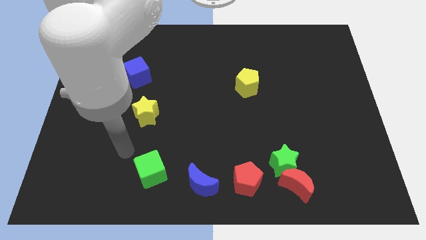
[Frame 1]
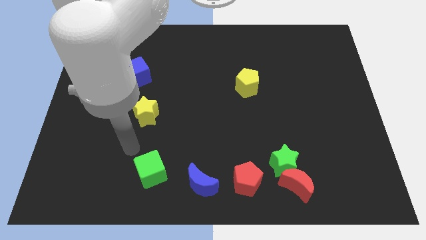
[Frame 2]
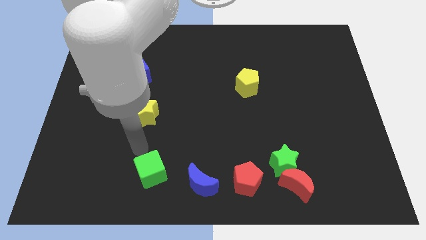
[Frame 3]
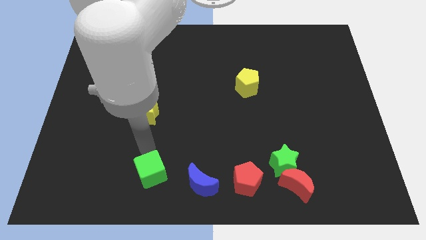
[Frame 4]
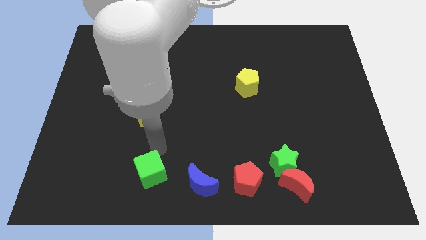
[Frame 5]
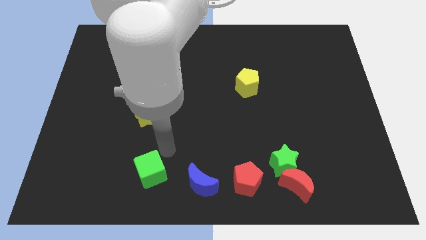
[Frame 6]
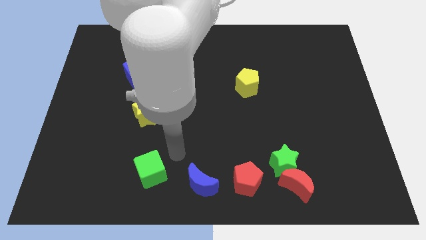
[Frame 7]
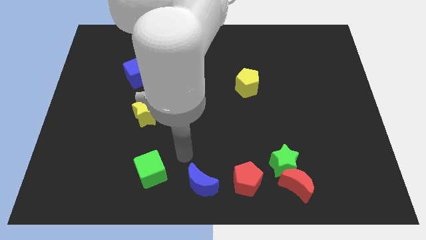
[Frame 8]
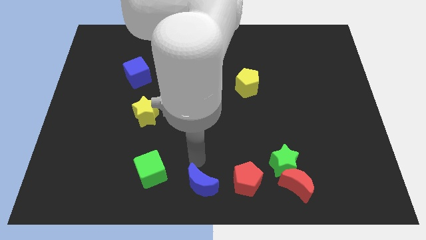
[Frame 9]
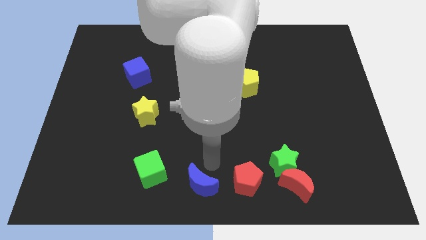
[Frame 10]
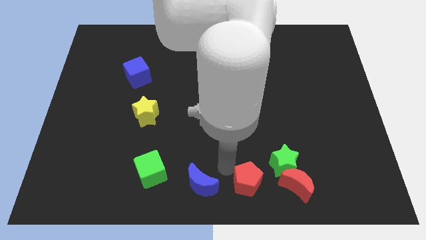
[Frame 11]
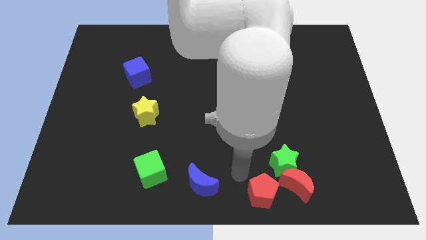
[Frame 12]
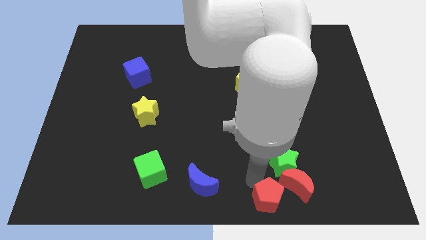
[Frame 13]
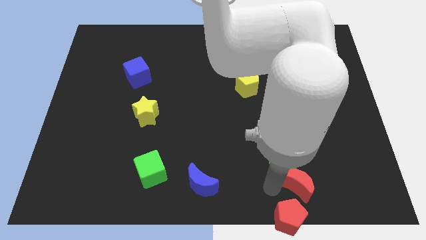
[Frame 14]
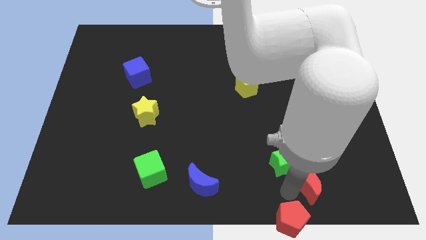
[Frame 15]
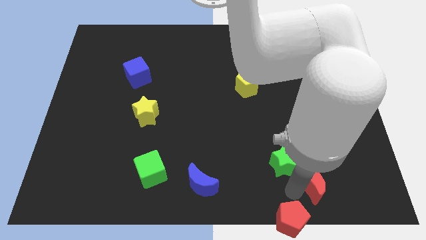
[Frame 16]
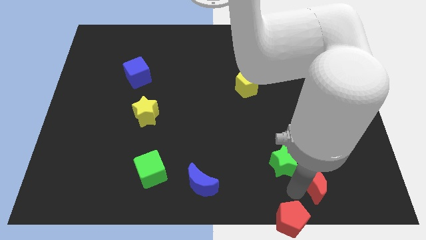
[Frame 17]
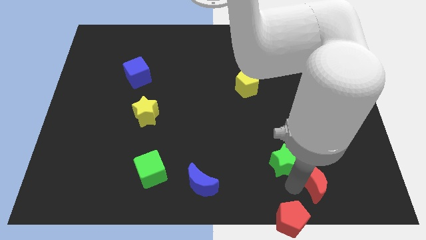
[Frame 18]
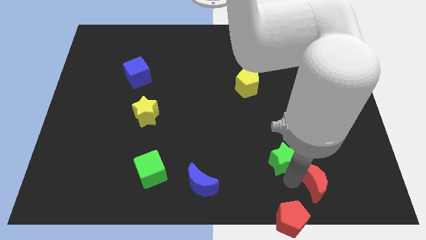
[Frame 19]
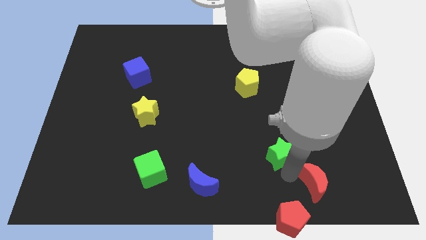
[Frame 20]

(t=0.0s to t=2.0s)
pull the green star apart from the red moon and red pentagon

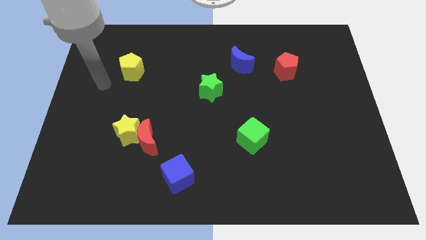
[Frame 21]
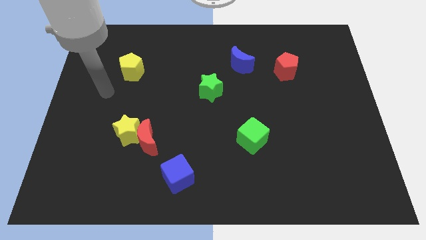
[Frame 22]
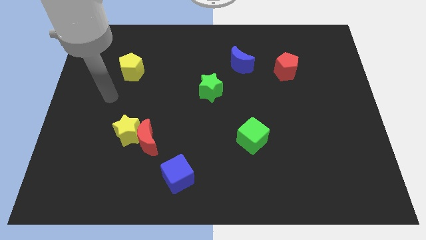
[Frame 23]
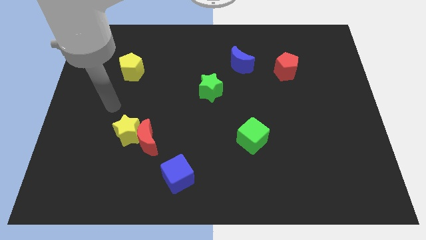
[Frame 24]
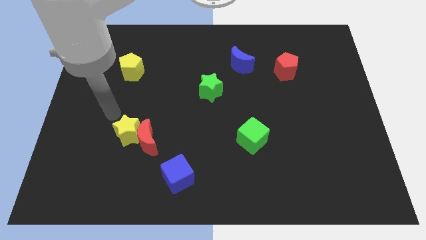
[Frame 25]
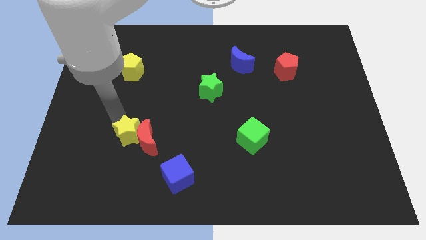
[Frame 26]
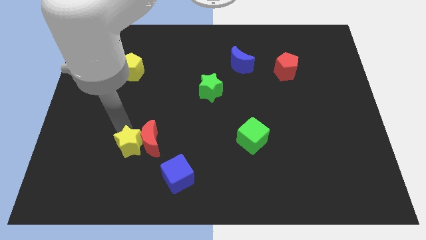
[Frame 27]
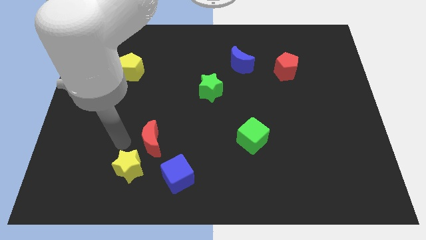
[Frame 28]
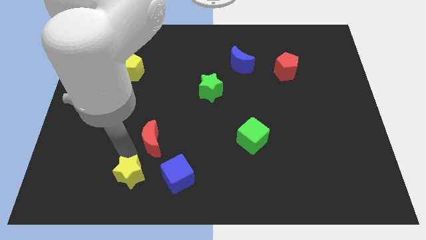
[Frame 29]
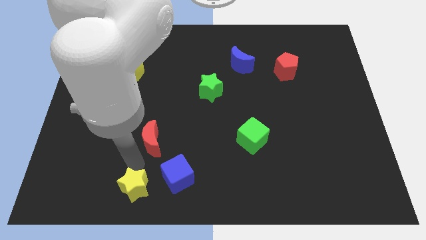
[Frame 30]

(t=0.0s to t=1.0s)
separate the red moon from the yellow star

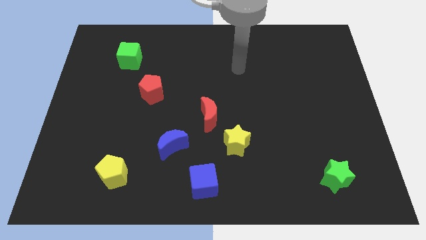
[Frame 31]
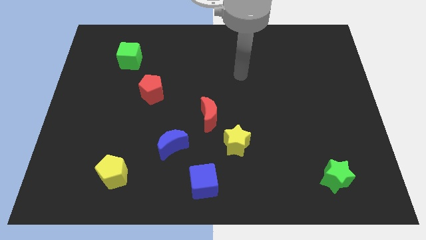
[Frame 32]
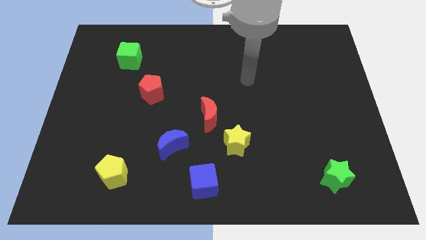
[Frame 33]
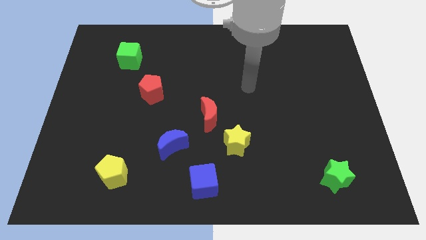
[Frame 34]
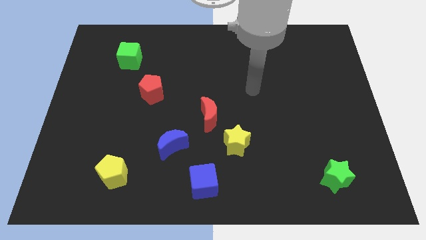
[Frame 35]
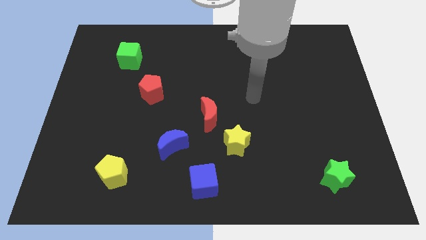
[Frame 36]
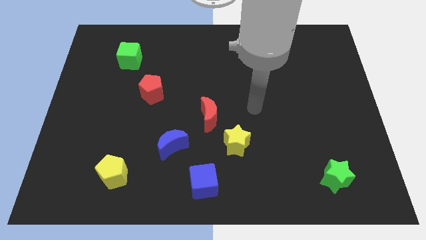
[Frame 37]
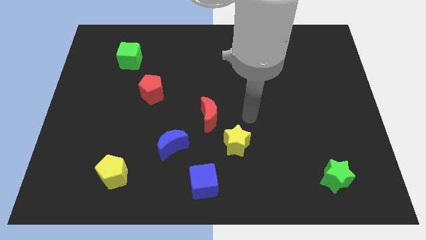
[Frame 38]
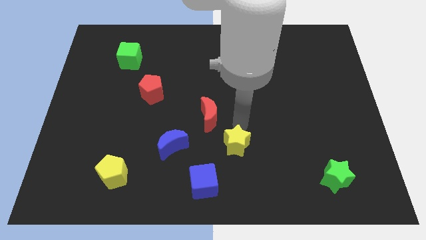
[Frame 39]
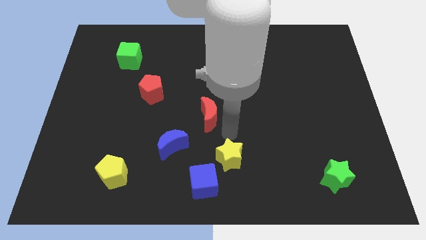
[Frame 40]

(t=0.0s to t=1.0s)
move the red moon away from the yellow star

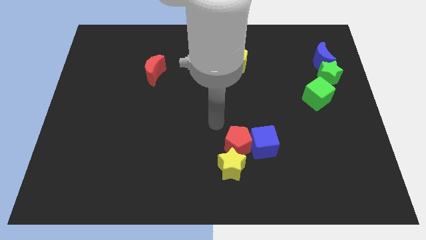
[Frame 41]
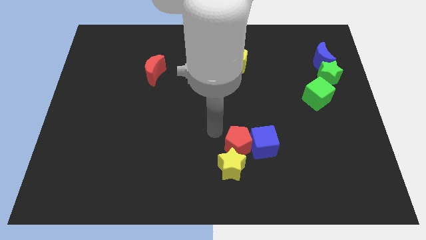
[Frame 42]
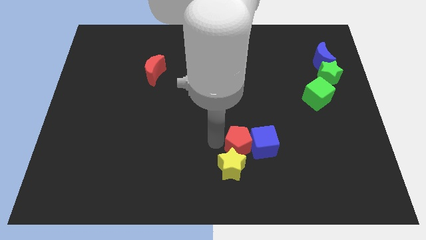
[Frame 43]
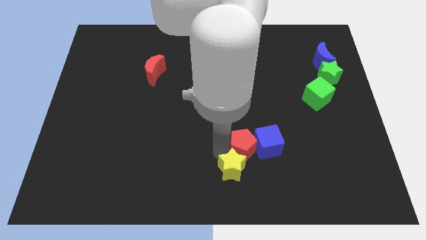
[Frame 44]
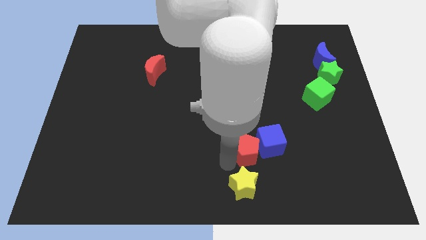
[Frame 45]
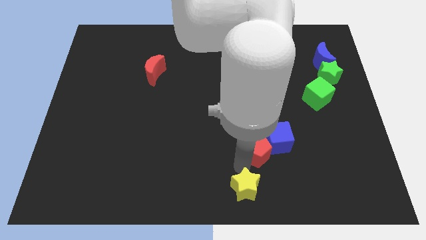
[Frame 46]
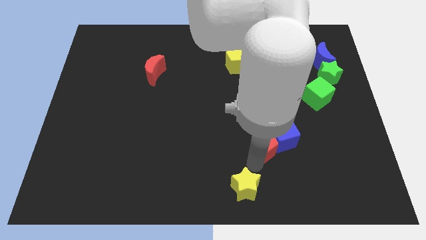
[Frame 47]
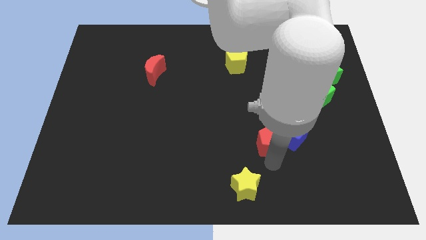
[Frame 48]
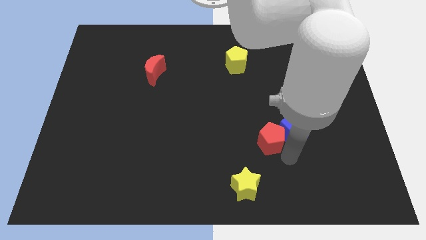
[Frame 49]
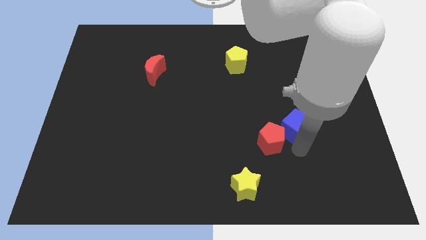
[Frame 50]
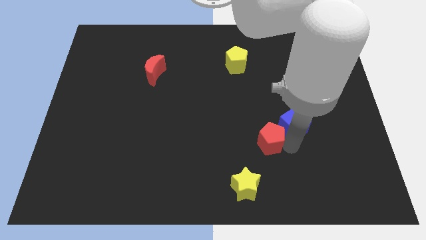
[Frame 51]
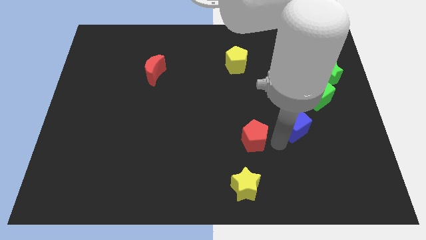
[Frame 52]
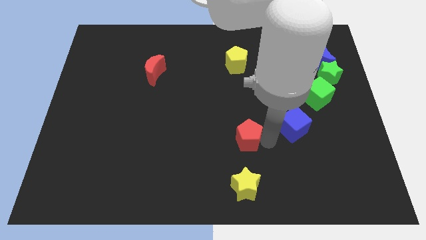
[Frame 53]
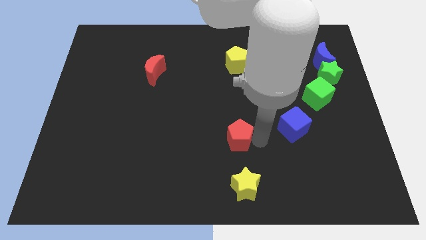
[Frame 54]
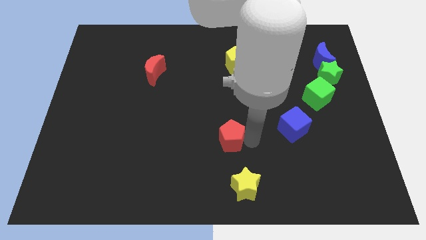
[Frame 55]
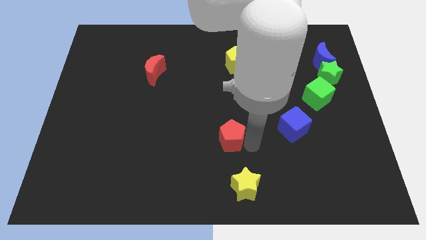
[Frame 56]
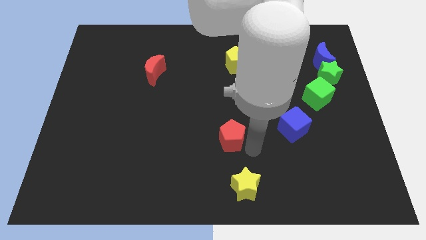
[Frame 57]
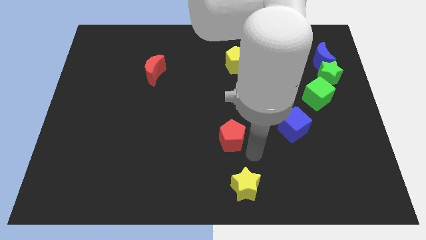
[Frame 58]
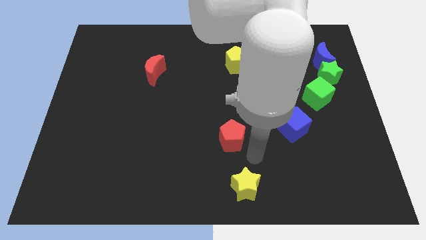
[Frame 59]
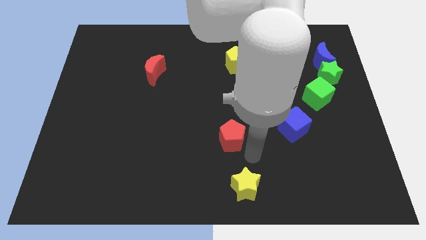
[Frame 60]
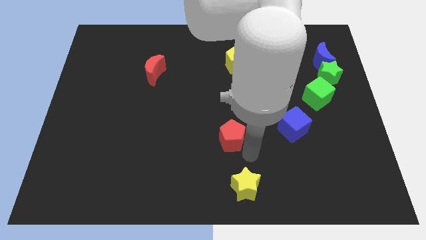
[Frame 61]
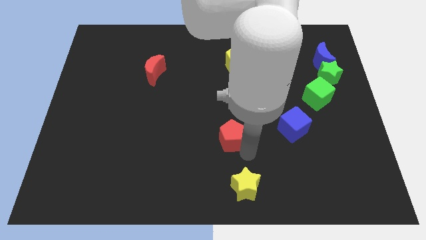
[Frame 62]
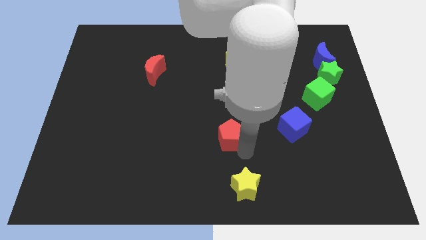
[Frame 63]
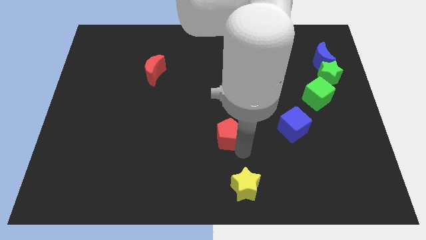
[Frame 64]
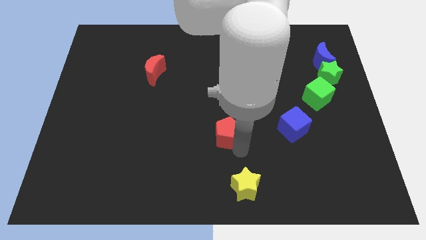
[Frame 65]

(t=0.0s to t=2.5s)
move the red pentagon away from the yellow star and blue cube

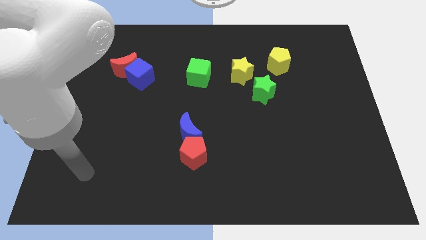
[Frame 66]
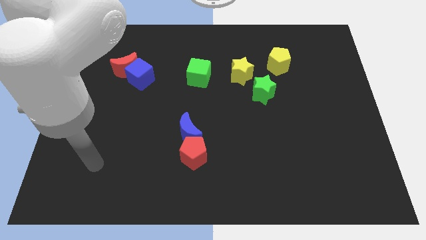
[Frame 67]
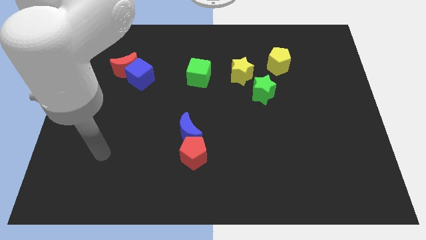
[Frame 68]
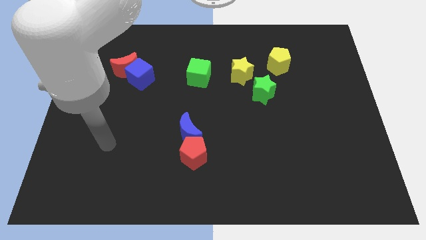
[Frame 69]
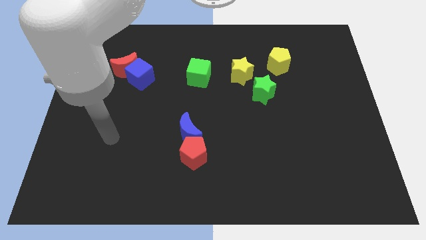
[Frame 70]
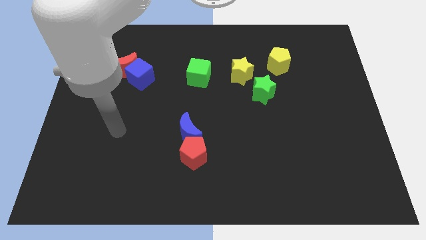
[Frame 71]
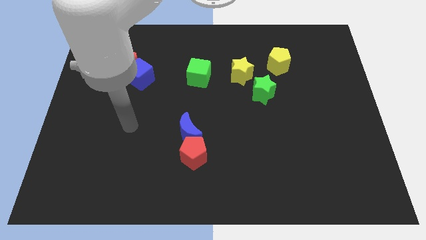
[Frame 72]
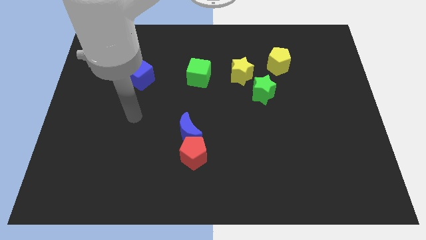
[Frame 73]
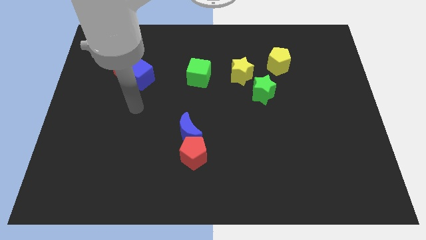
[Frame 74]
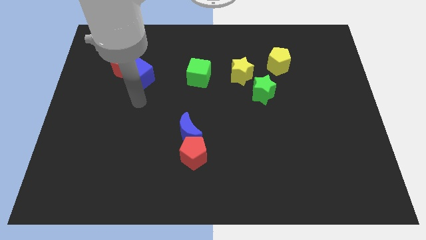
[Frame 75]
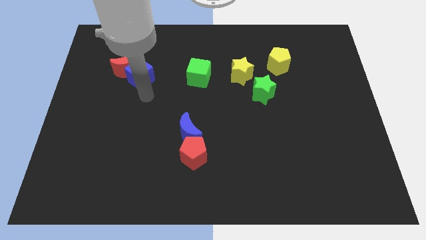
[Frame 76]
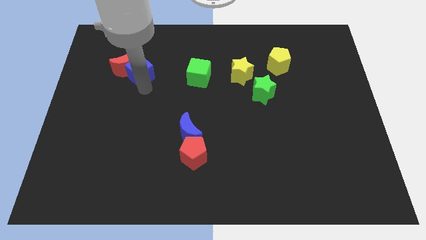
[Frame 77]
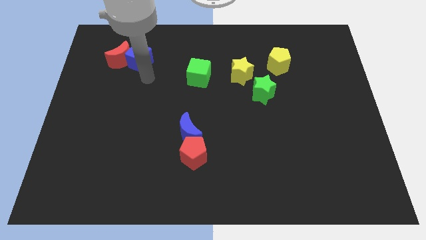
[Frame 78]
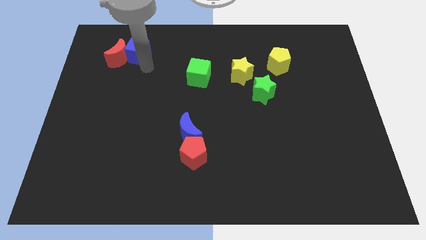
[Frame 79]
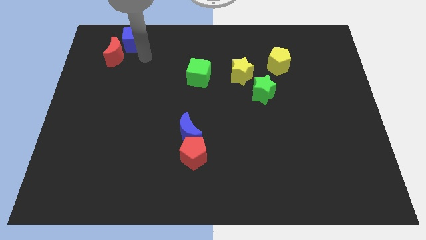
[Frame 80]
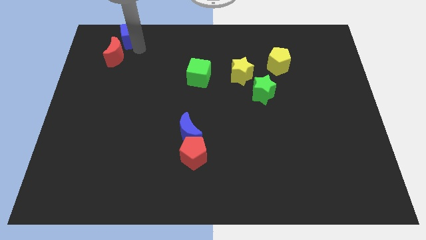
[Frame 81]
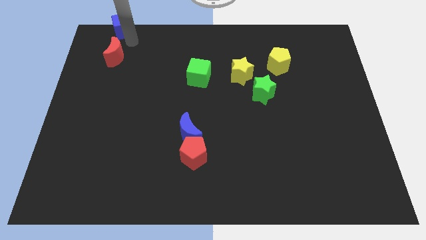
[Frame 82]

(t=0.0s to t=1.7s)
separate the red moon from the blue cube

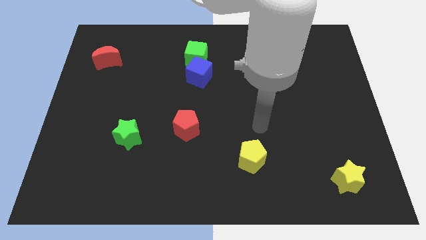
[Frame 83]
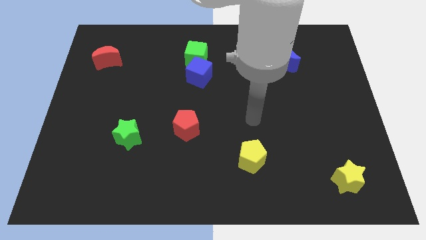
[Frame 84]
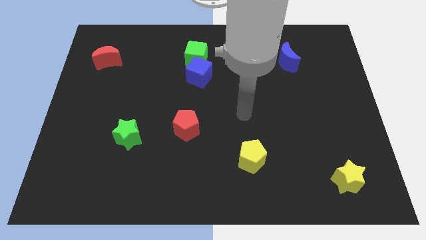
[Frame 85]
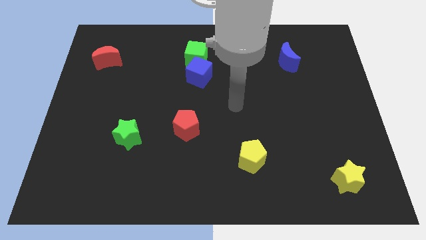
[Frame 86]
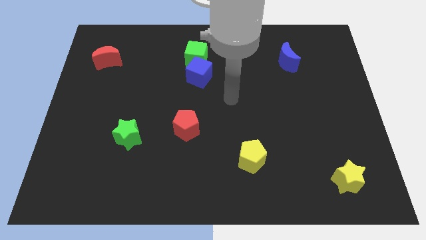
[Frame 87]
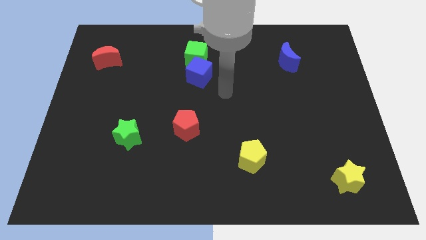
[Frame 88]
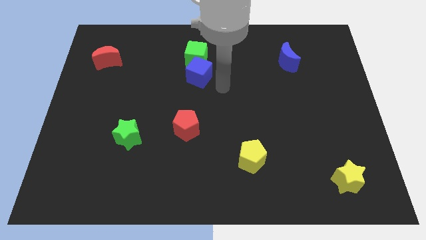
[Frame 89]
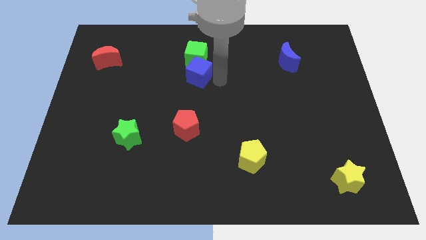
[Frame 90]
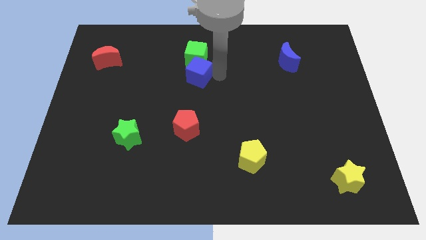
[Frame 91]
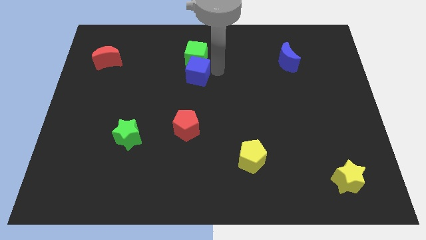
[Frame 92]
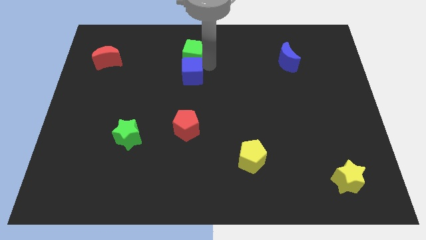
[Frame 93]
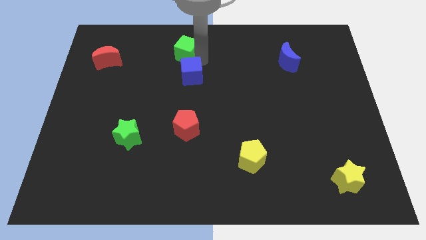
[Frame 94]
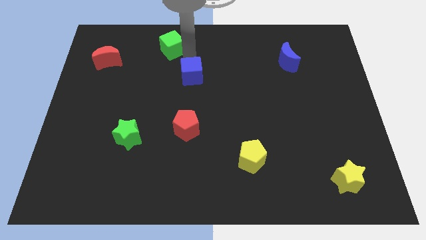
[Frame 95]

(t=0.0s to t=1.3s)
pull the blue cube apart from the green cube
